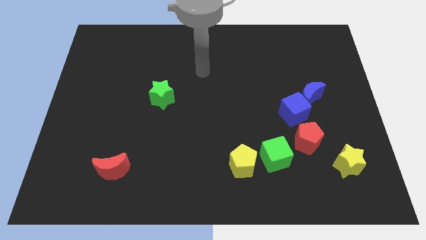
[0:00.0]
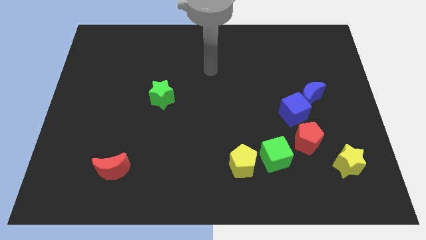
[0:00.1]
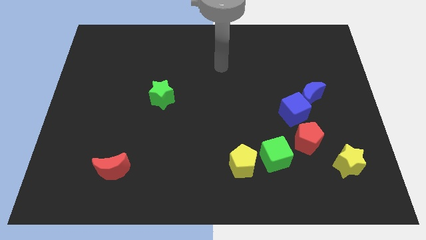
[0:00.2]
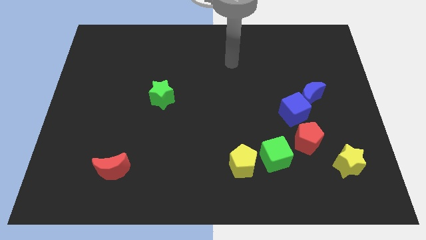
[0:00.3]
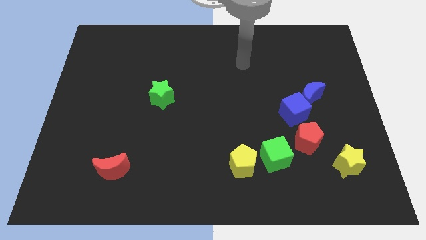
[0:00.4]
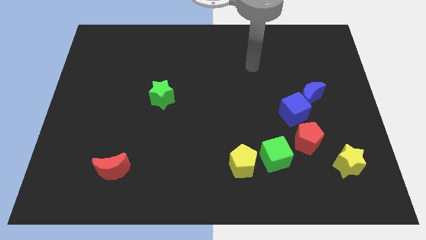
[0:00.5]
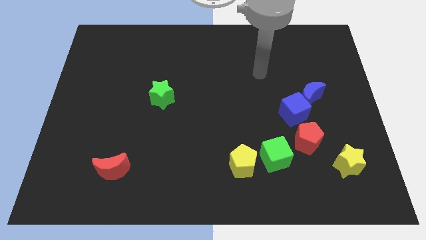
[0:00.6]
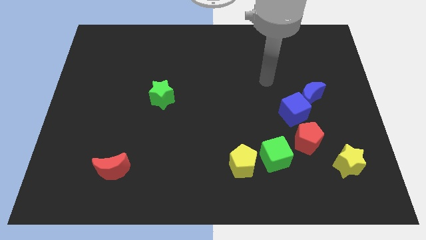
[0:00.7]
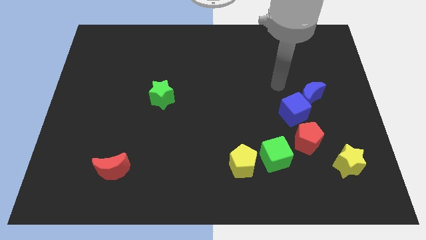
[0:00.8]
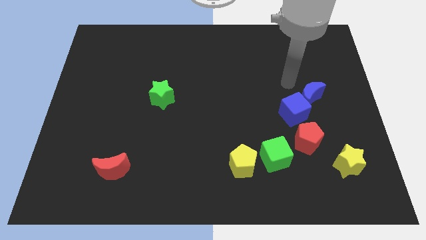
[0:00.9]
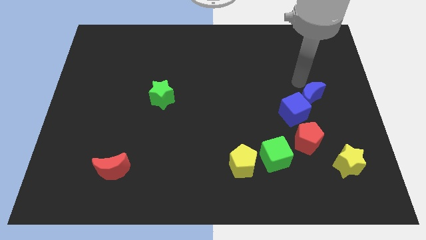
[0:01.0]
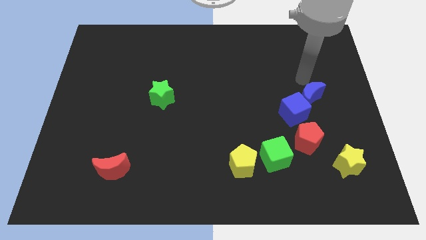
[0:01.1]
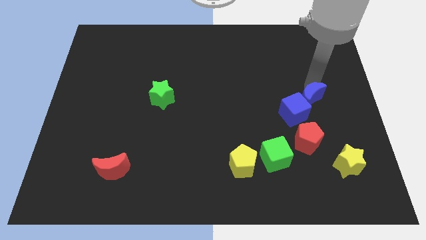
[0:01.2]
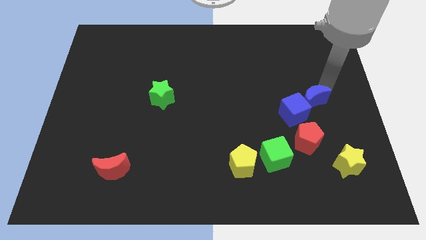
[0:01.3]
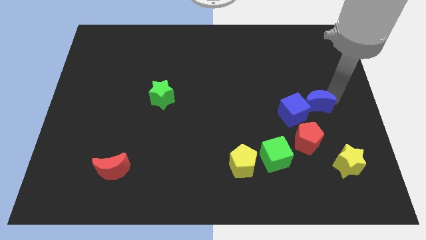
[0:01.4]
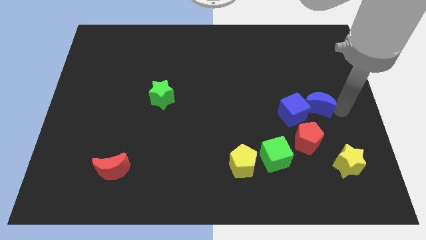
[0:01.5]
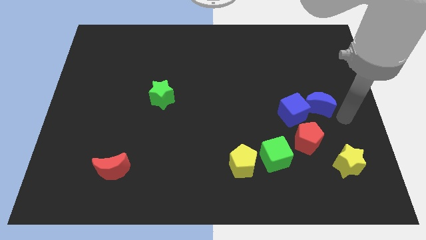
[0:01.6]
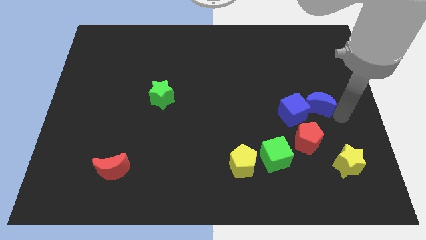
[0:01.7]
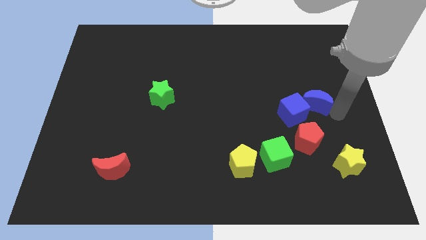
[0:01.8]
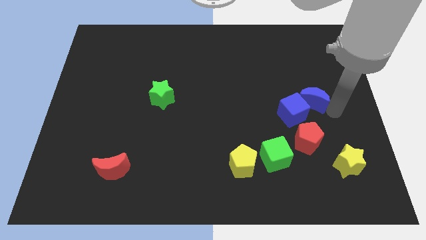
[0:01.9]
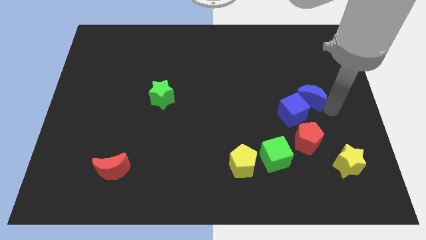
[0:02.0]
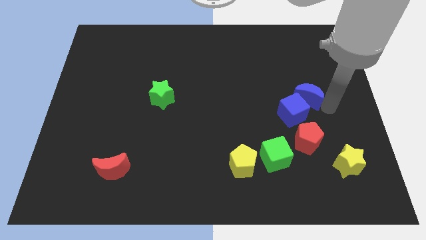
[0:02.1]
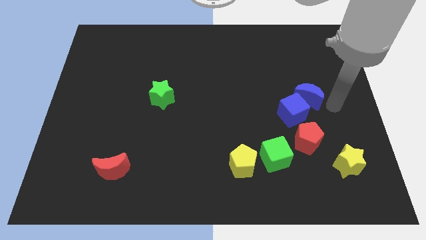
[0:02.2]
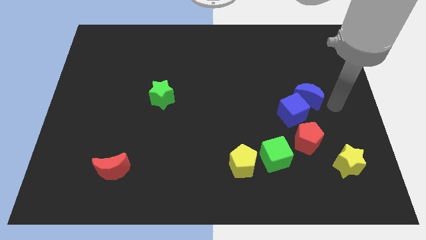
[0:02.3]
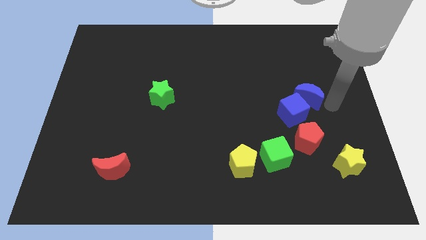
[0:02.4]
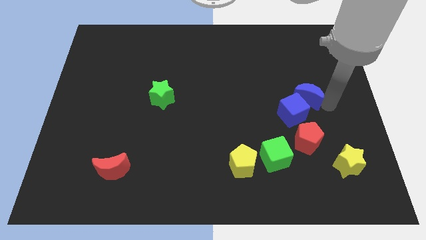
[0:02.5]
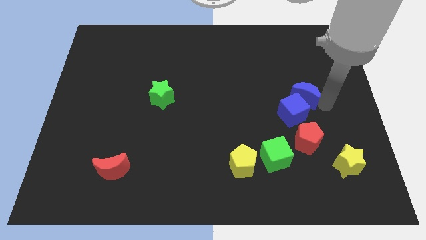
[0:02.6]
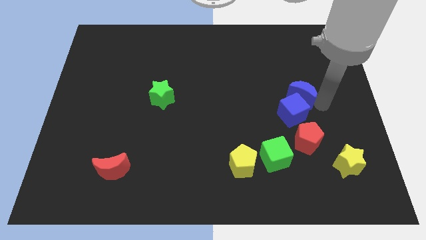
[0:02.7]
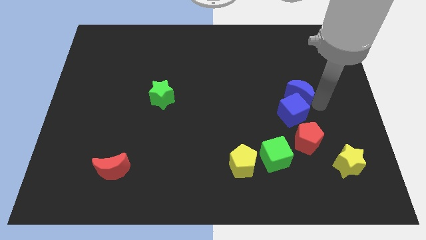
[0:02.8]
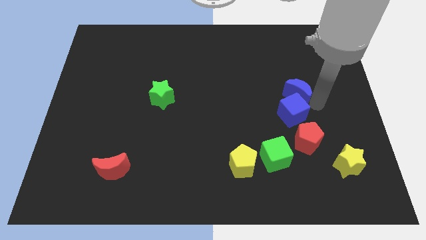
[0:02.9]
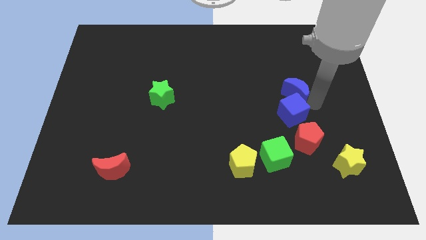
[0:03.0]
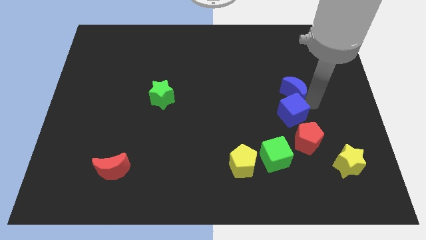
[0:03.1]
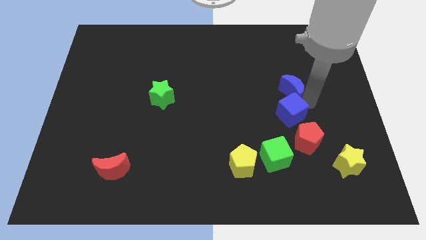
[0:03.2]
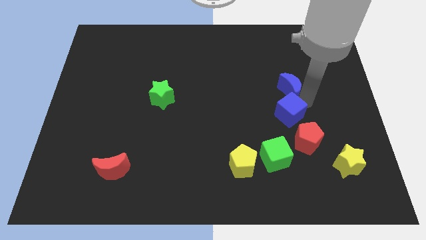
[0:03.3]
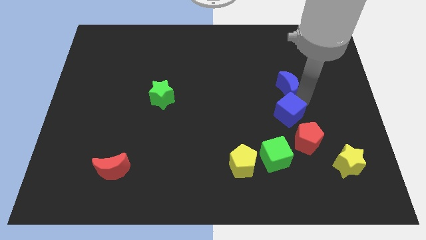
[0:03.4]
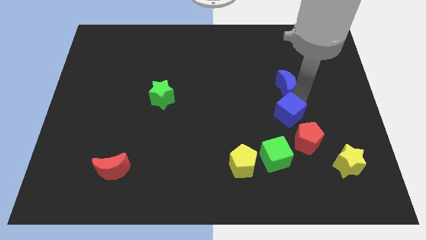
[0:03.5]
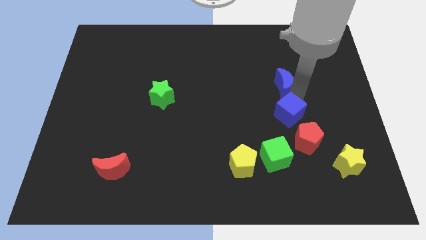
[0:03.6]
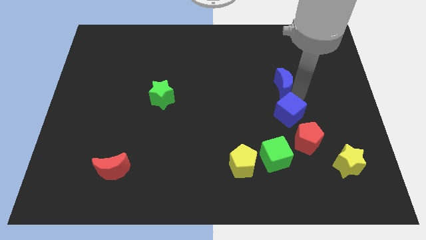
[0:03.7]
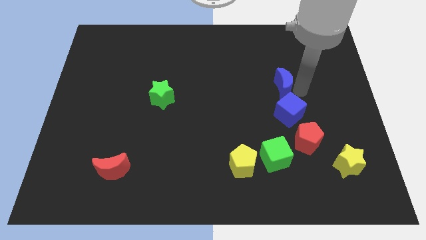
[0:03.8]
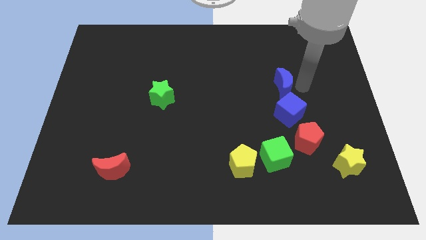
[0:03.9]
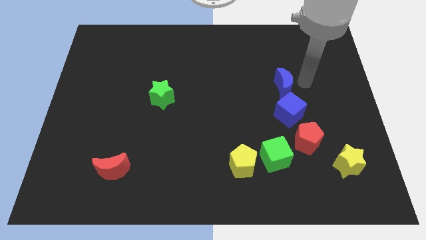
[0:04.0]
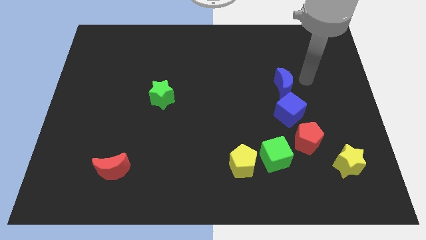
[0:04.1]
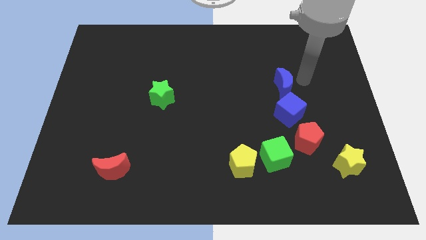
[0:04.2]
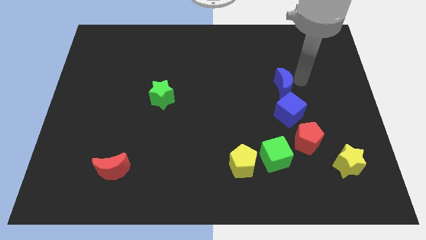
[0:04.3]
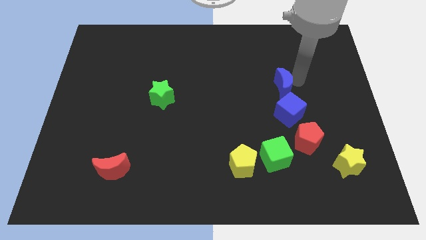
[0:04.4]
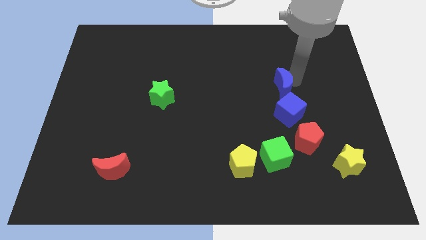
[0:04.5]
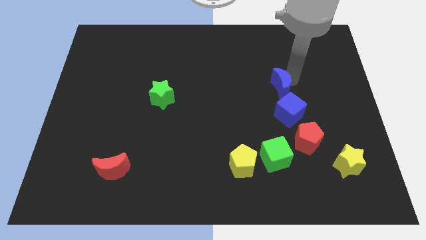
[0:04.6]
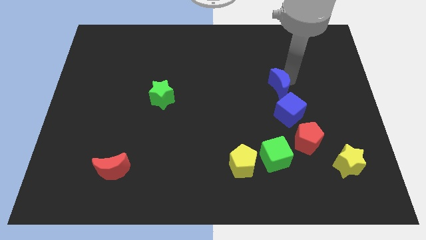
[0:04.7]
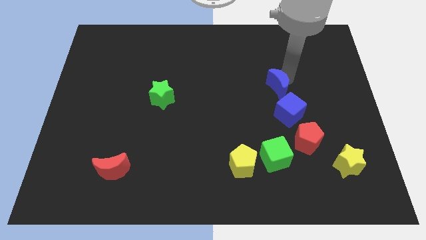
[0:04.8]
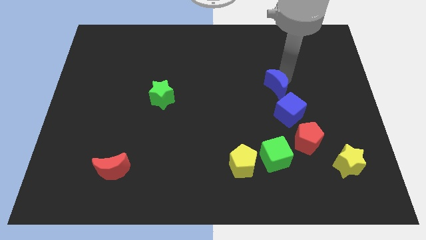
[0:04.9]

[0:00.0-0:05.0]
slide the blue moon to the left a little bit

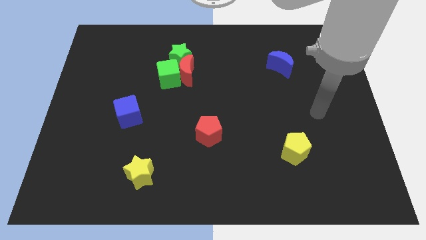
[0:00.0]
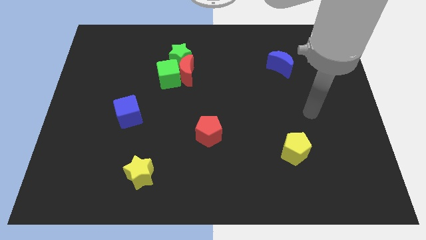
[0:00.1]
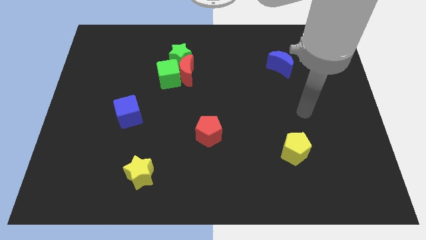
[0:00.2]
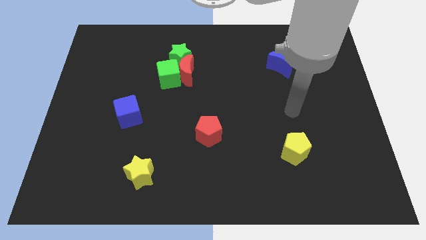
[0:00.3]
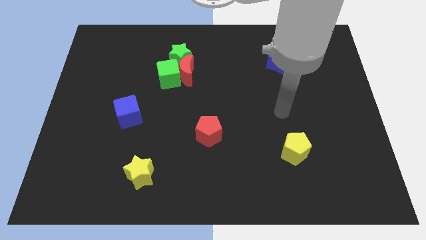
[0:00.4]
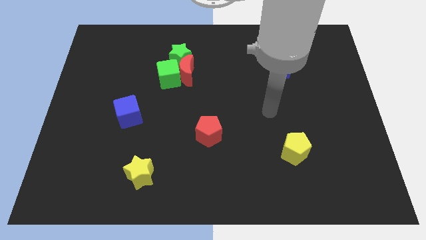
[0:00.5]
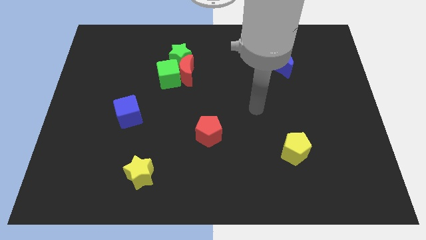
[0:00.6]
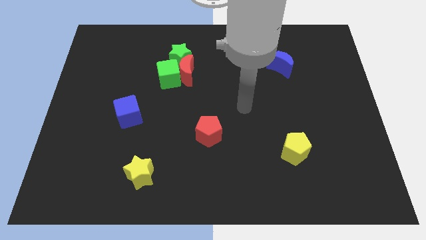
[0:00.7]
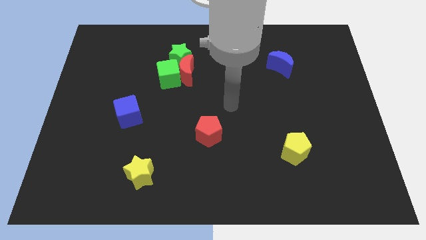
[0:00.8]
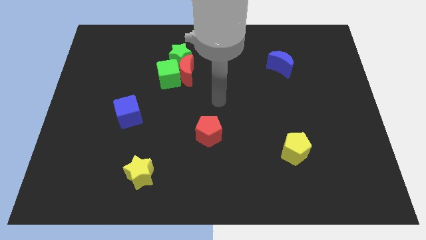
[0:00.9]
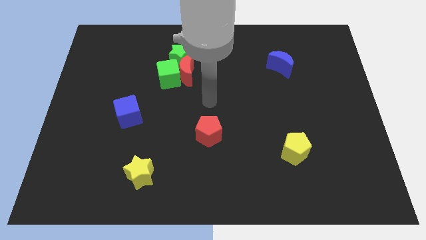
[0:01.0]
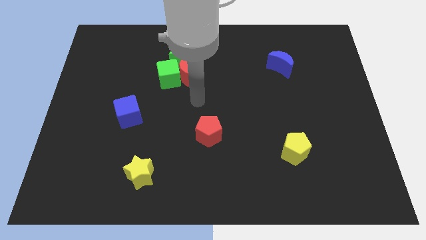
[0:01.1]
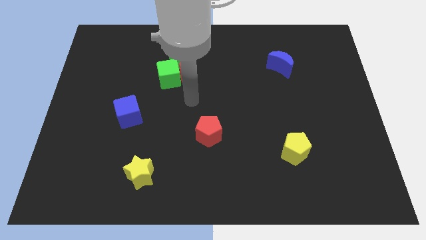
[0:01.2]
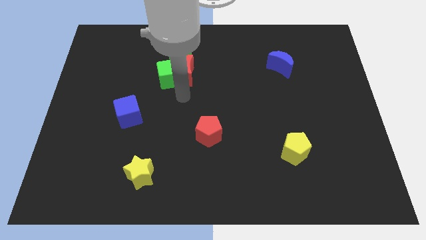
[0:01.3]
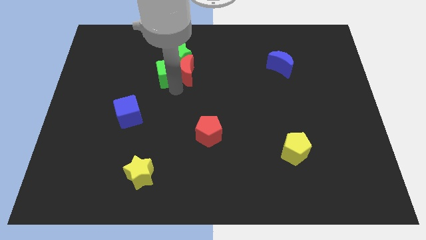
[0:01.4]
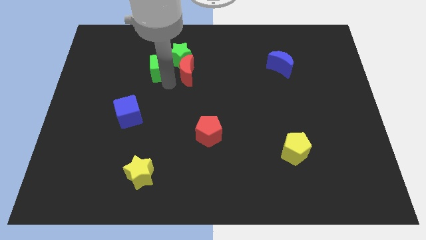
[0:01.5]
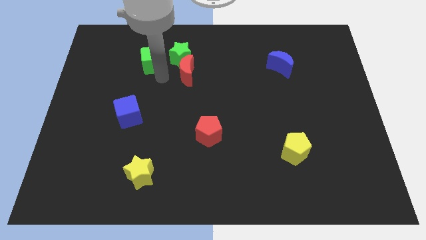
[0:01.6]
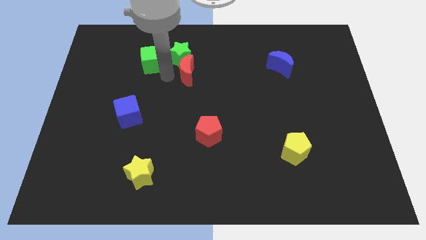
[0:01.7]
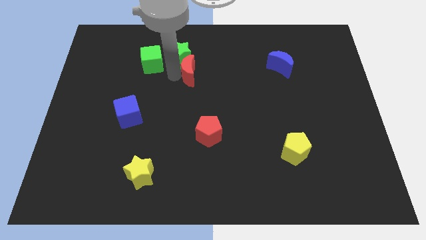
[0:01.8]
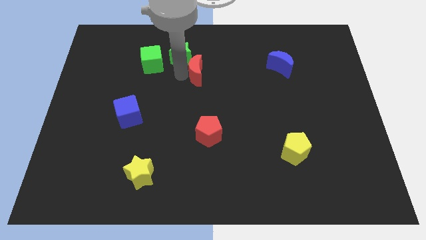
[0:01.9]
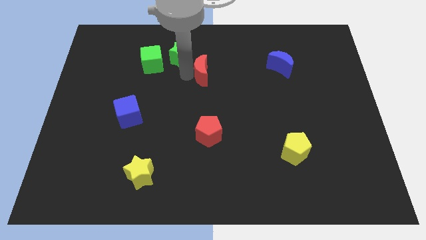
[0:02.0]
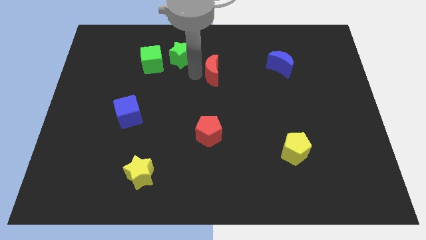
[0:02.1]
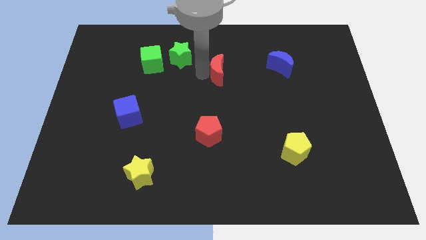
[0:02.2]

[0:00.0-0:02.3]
move the red moon a little bit to the right

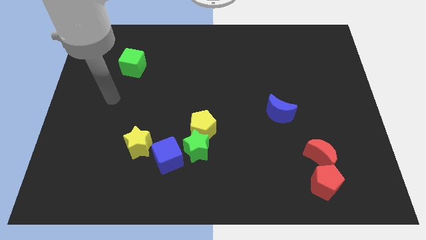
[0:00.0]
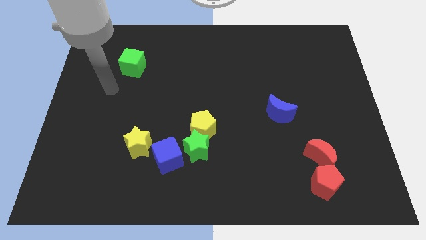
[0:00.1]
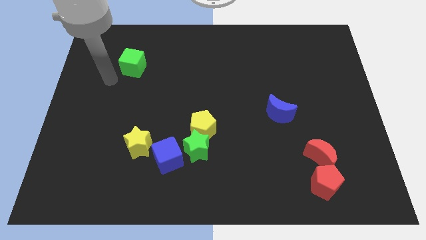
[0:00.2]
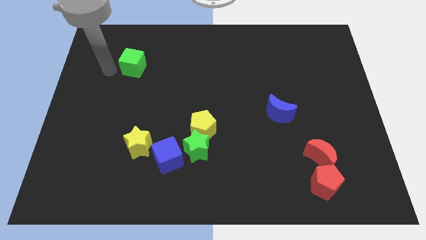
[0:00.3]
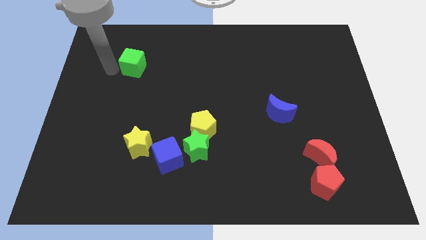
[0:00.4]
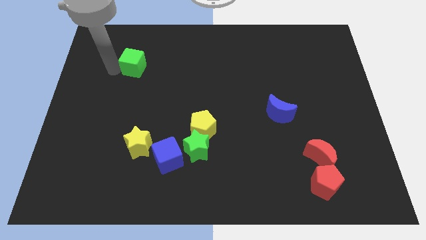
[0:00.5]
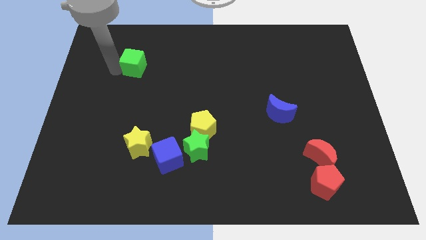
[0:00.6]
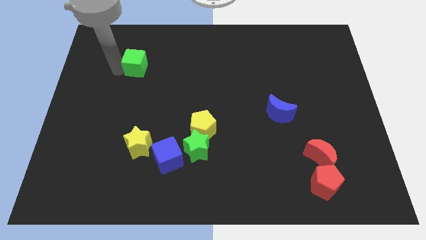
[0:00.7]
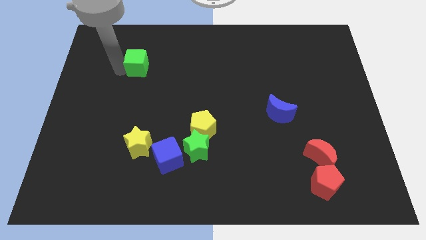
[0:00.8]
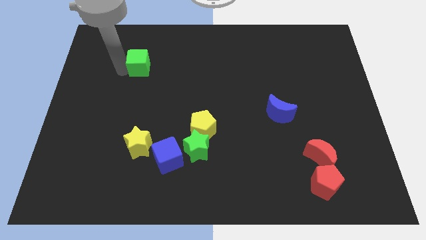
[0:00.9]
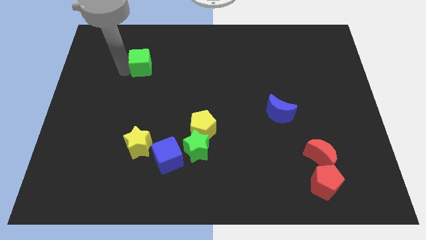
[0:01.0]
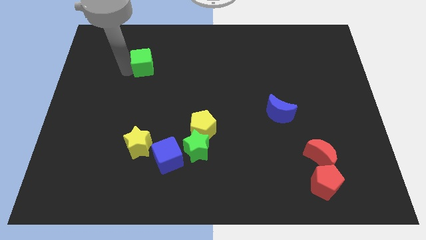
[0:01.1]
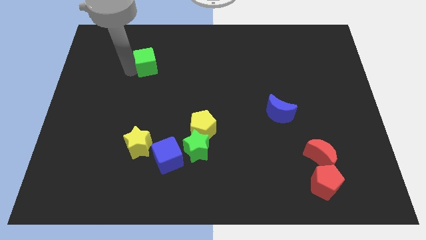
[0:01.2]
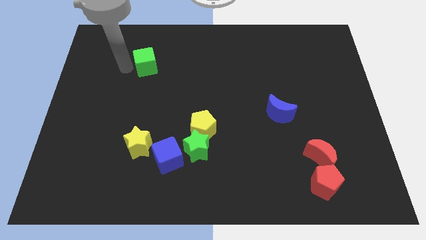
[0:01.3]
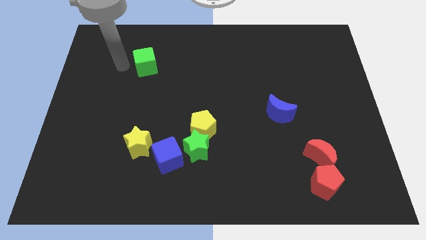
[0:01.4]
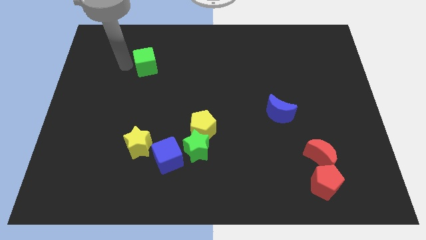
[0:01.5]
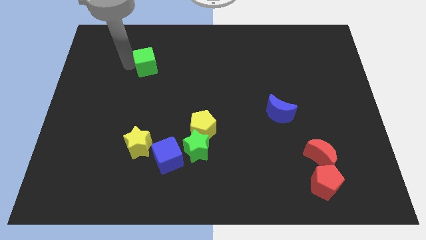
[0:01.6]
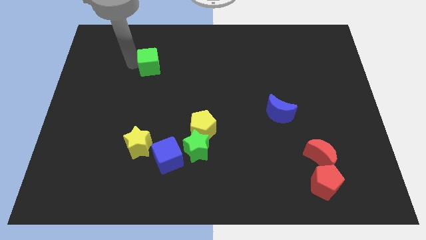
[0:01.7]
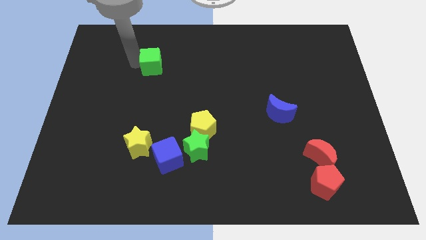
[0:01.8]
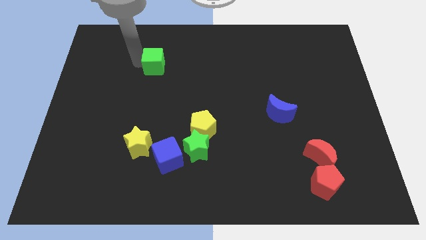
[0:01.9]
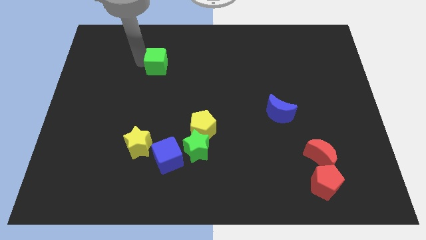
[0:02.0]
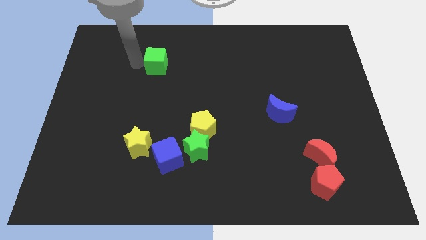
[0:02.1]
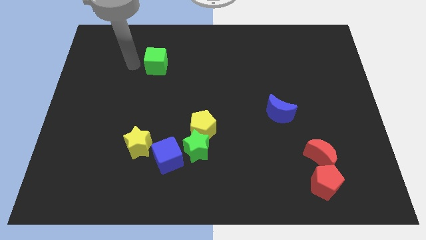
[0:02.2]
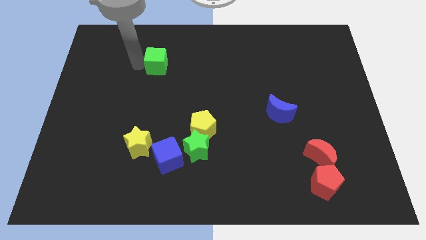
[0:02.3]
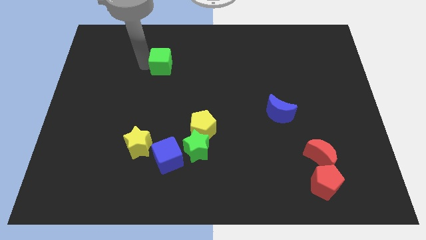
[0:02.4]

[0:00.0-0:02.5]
move the green cube right slightly
